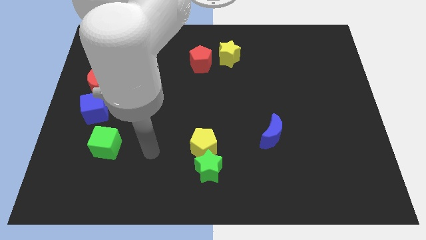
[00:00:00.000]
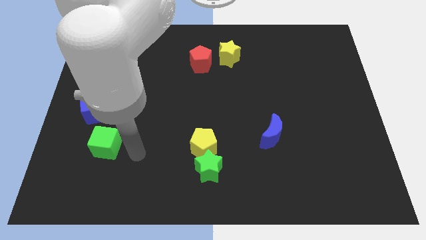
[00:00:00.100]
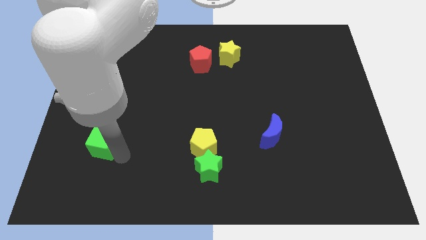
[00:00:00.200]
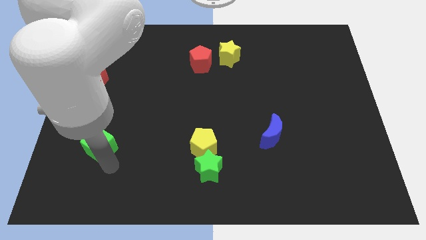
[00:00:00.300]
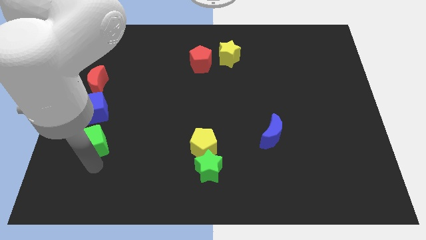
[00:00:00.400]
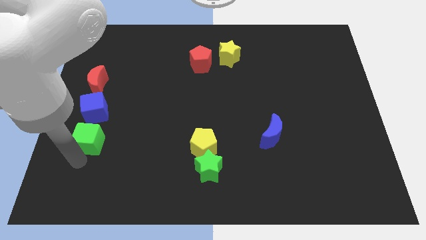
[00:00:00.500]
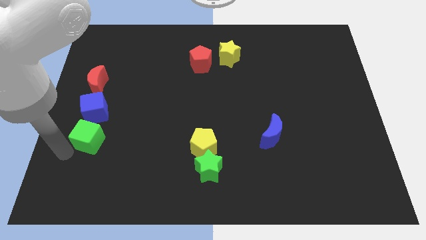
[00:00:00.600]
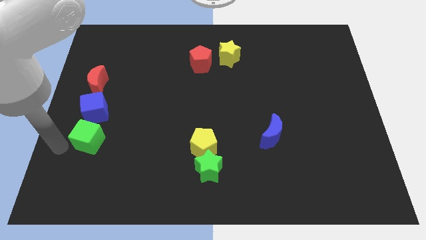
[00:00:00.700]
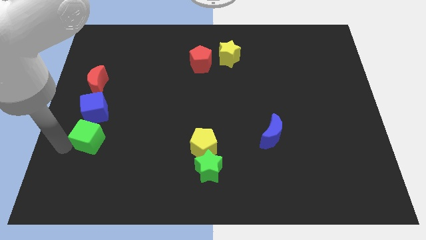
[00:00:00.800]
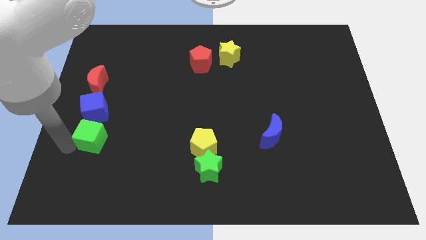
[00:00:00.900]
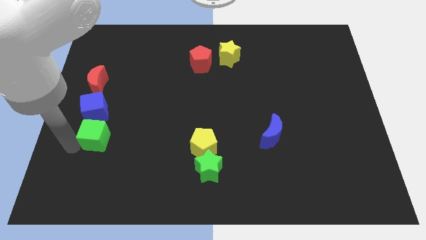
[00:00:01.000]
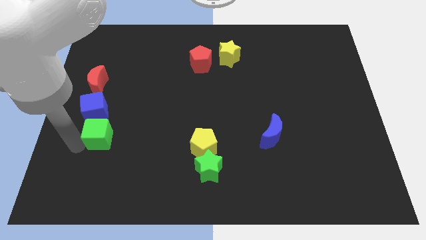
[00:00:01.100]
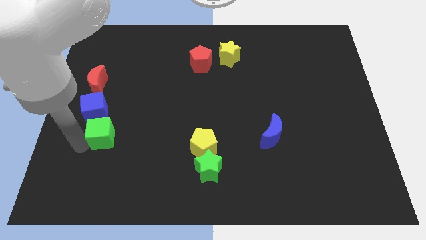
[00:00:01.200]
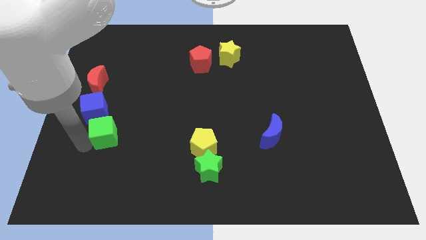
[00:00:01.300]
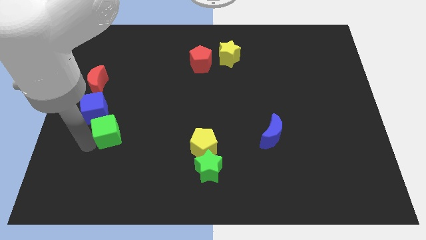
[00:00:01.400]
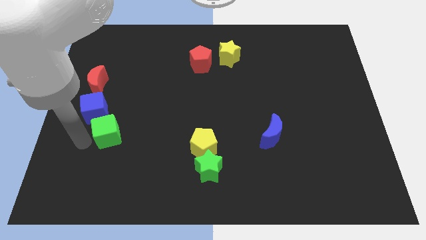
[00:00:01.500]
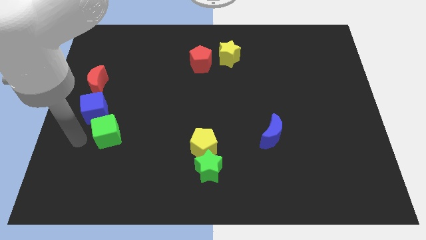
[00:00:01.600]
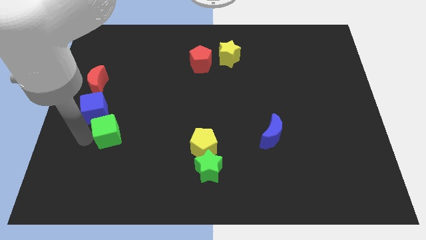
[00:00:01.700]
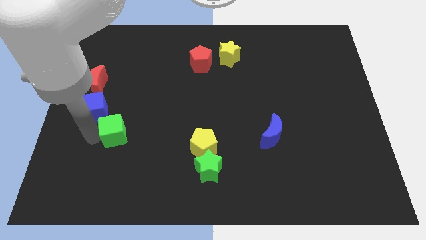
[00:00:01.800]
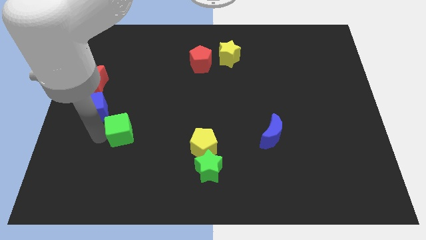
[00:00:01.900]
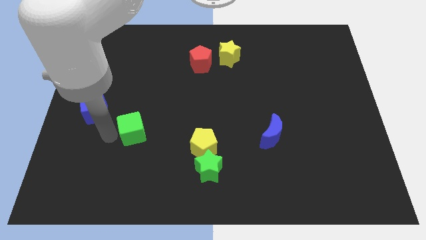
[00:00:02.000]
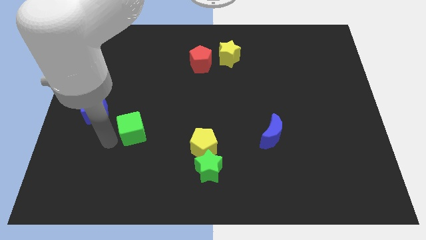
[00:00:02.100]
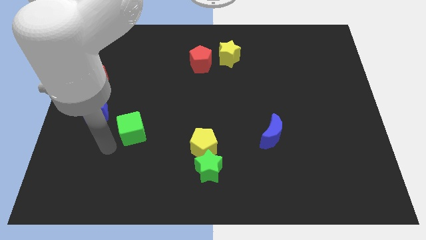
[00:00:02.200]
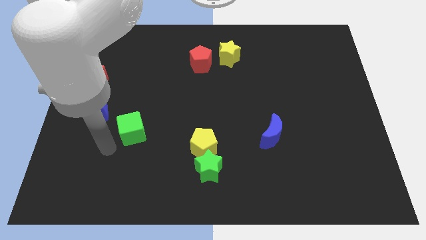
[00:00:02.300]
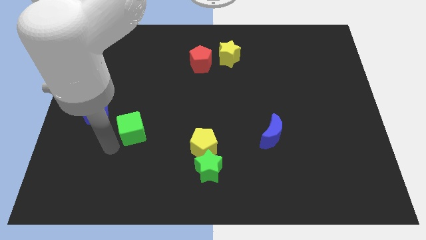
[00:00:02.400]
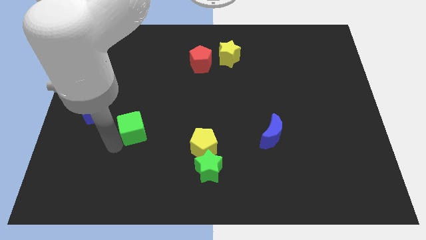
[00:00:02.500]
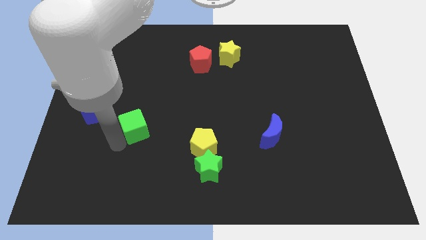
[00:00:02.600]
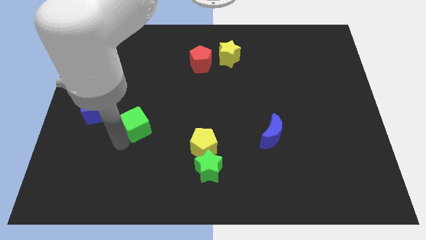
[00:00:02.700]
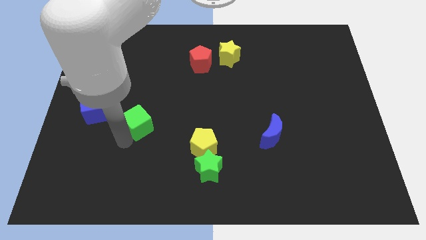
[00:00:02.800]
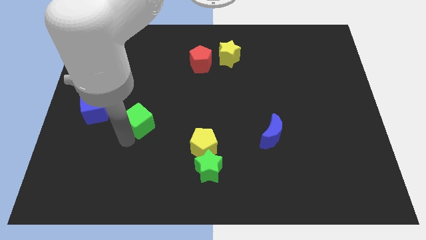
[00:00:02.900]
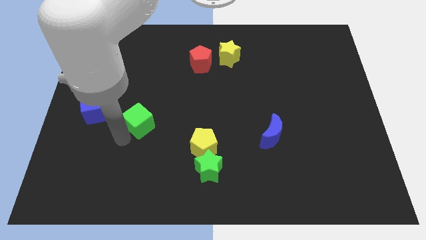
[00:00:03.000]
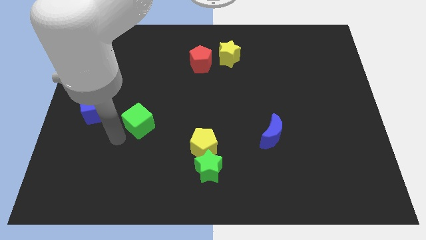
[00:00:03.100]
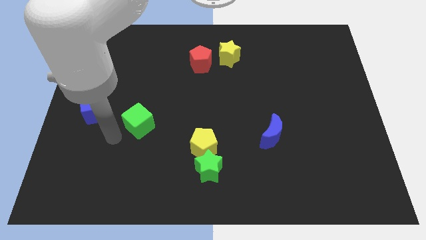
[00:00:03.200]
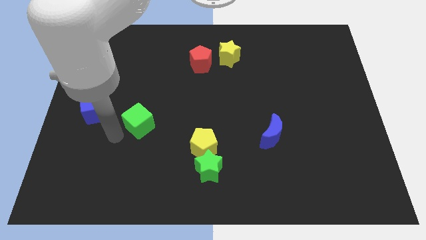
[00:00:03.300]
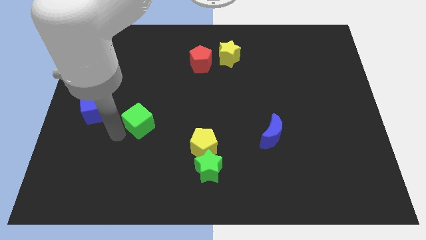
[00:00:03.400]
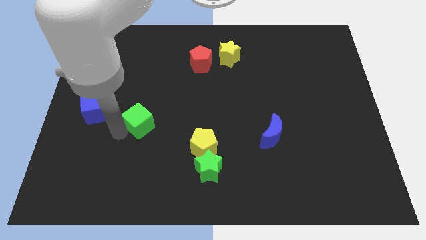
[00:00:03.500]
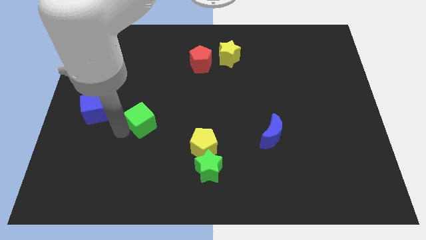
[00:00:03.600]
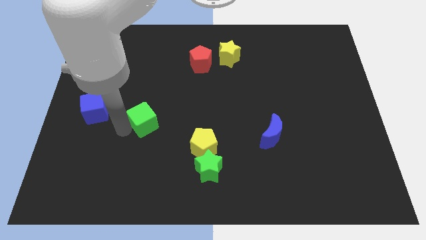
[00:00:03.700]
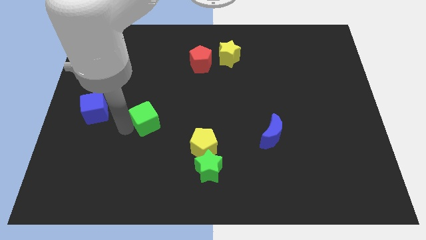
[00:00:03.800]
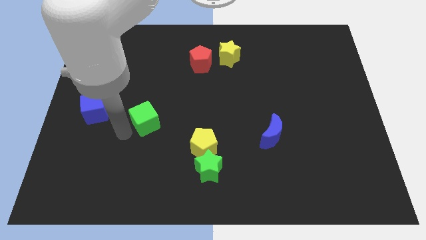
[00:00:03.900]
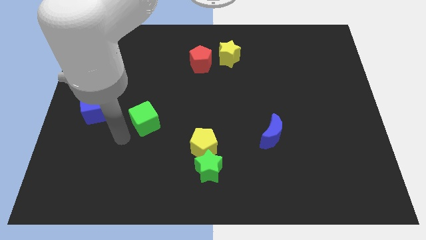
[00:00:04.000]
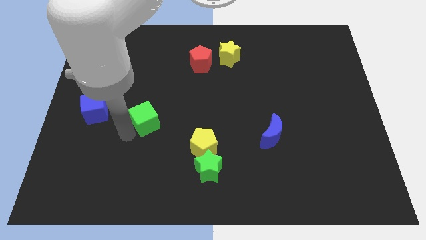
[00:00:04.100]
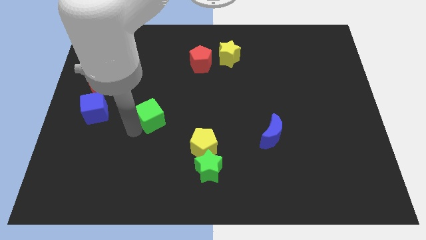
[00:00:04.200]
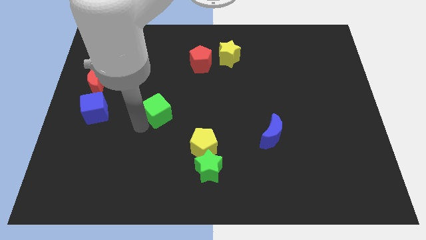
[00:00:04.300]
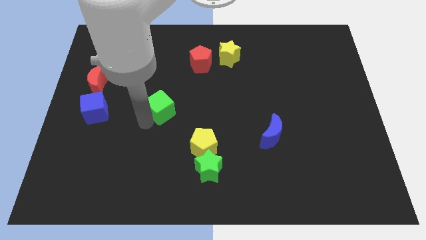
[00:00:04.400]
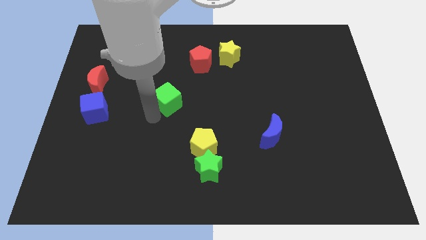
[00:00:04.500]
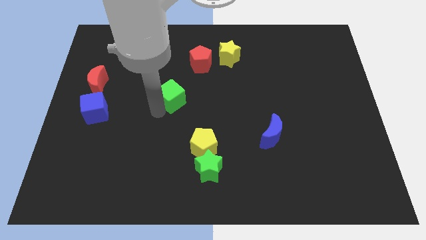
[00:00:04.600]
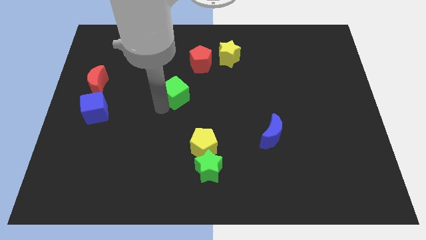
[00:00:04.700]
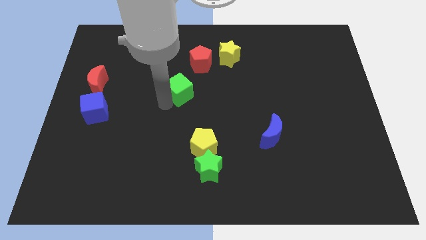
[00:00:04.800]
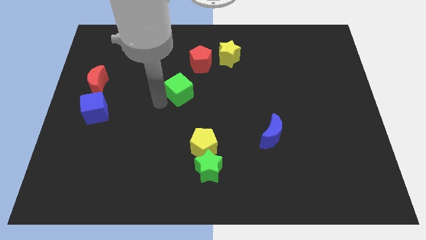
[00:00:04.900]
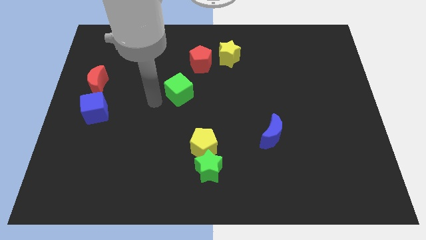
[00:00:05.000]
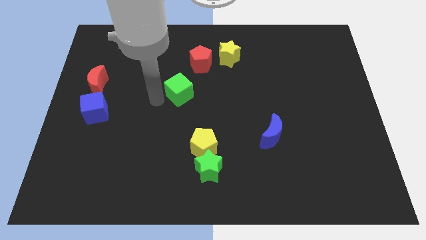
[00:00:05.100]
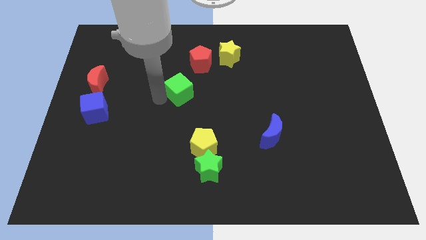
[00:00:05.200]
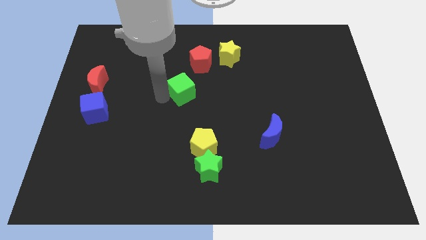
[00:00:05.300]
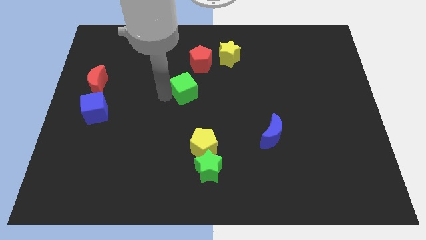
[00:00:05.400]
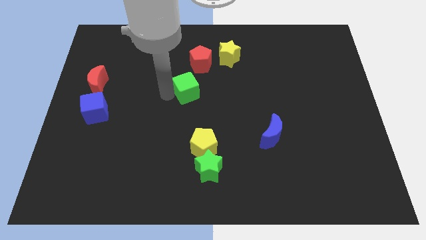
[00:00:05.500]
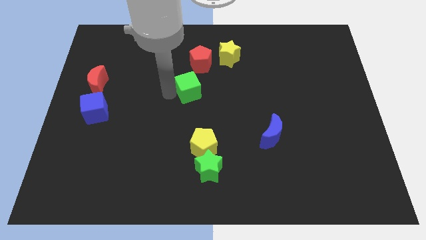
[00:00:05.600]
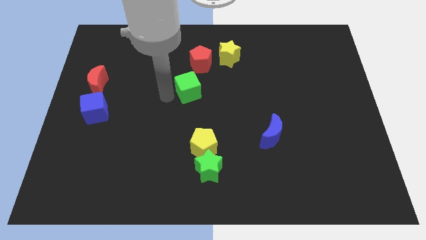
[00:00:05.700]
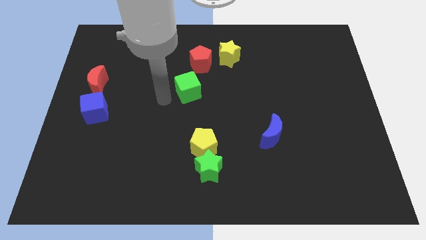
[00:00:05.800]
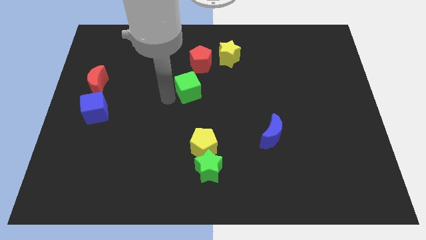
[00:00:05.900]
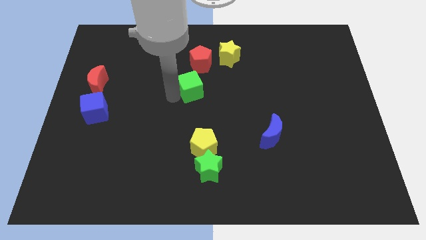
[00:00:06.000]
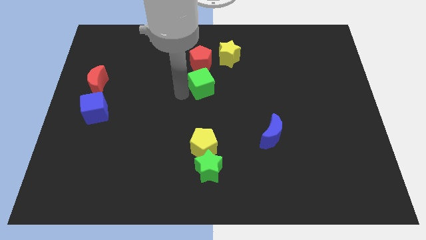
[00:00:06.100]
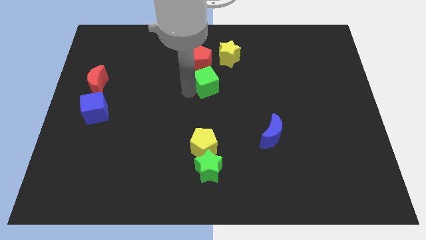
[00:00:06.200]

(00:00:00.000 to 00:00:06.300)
slide the green cube to the bottom right of the red pentagon

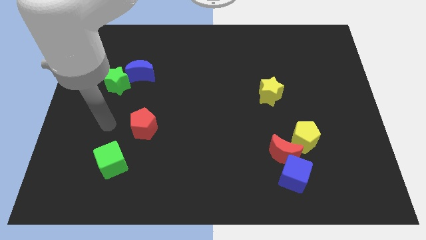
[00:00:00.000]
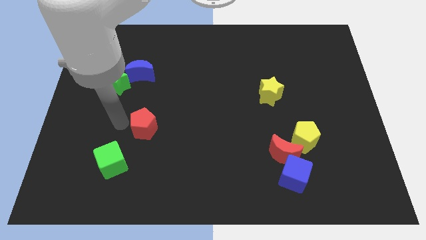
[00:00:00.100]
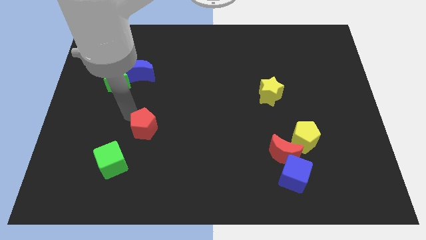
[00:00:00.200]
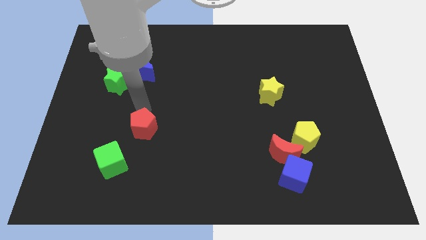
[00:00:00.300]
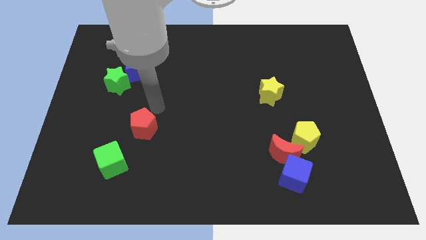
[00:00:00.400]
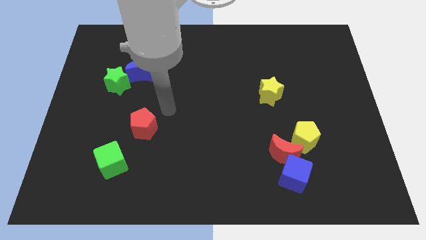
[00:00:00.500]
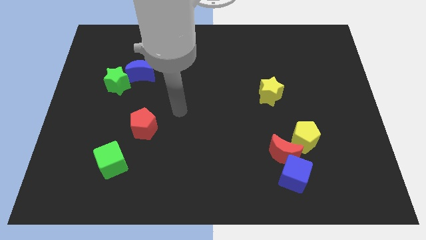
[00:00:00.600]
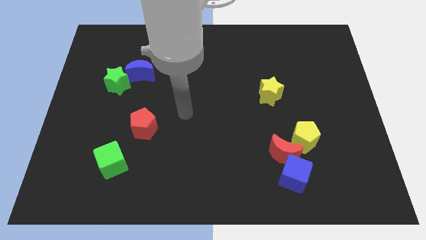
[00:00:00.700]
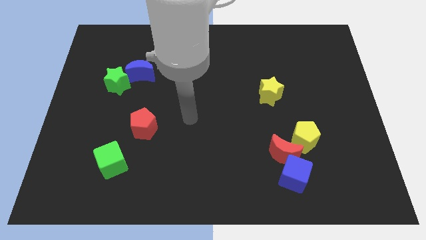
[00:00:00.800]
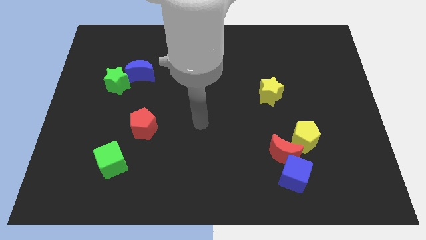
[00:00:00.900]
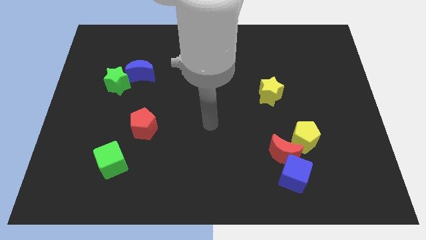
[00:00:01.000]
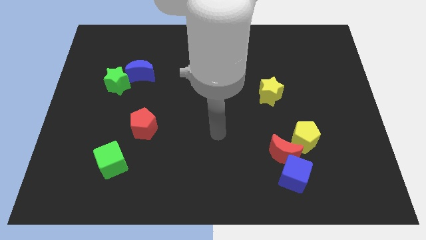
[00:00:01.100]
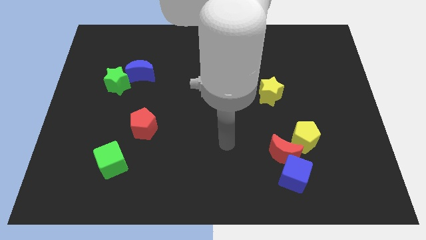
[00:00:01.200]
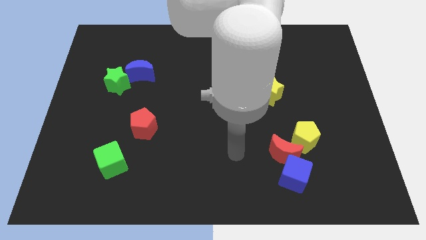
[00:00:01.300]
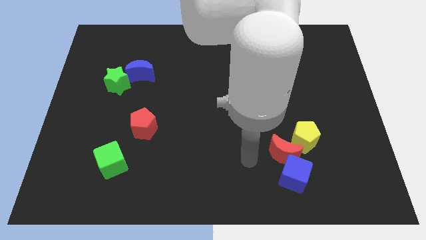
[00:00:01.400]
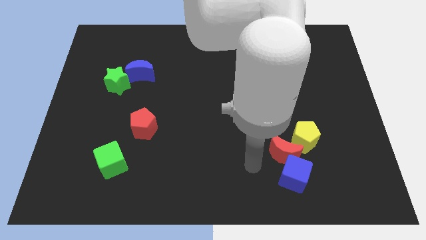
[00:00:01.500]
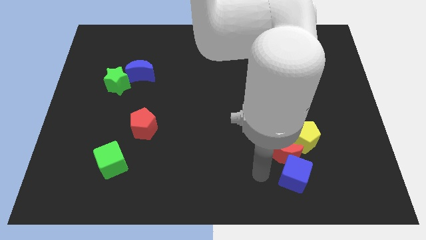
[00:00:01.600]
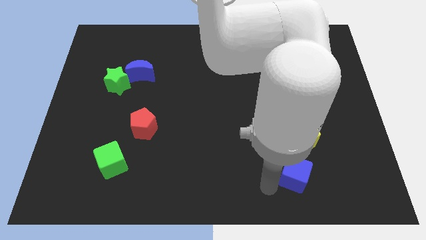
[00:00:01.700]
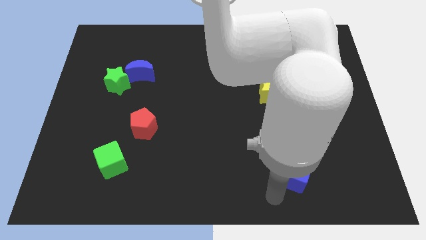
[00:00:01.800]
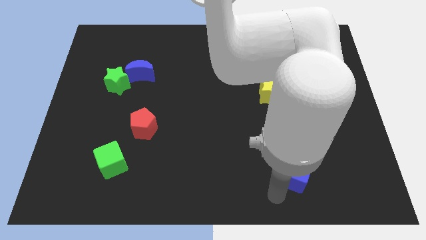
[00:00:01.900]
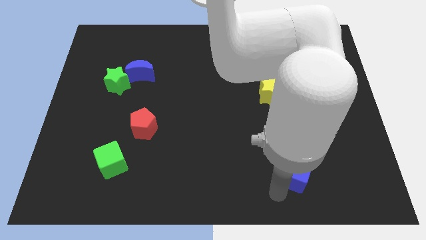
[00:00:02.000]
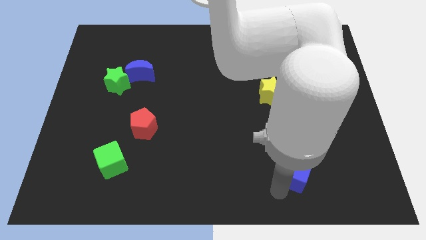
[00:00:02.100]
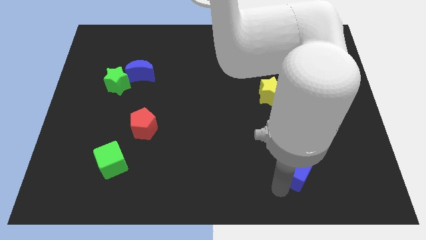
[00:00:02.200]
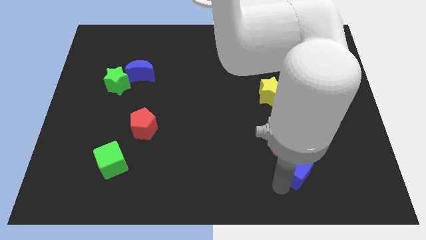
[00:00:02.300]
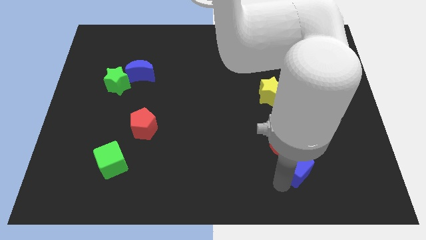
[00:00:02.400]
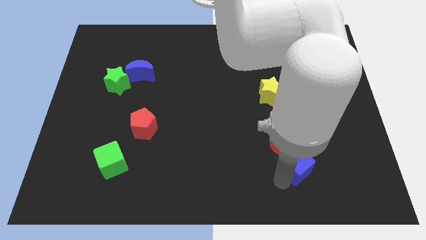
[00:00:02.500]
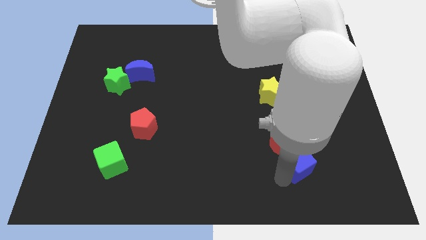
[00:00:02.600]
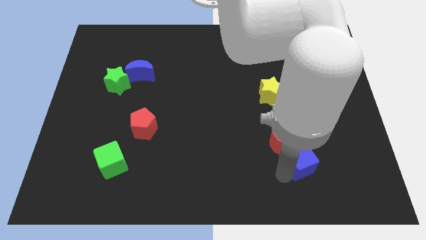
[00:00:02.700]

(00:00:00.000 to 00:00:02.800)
put the blue cube just right of the red moon
